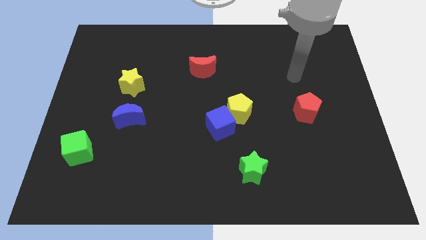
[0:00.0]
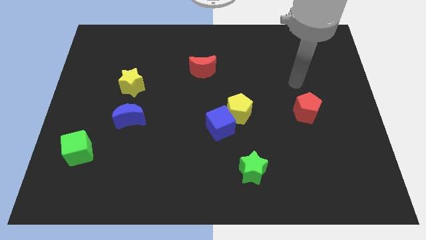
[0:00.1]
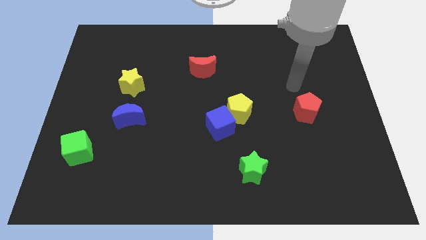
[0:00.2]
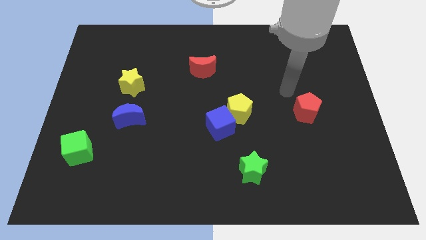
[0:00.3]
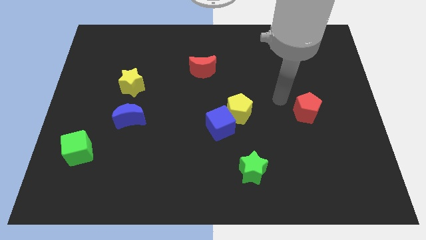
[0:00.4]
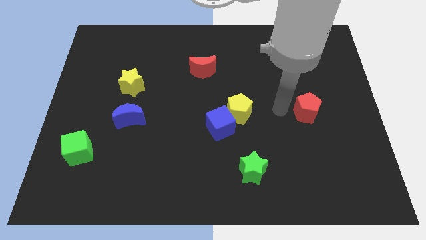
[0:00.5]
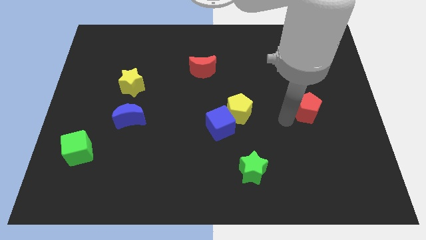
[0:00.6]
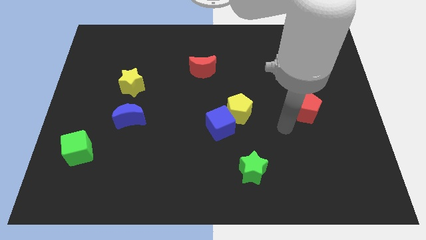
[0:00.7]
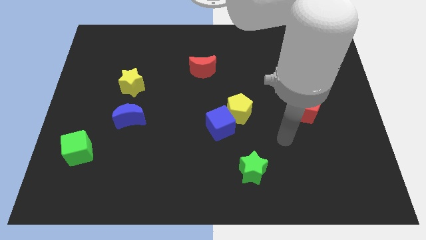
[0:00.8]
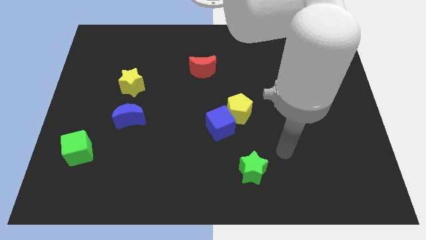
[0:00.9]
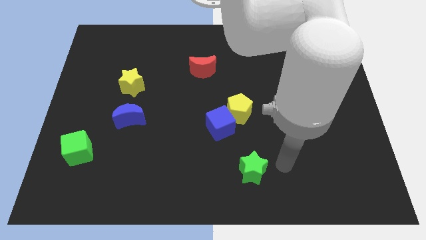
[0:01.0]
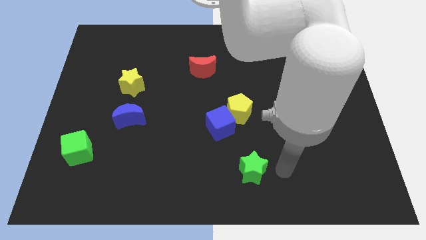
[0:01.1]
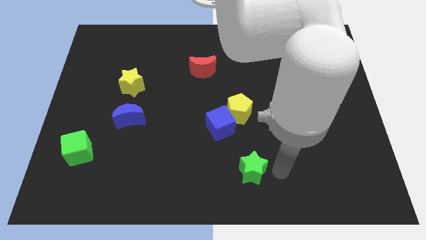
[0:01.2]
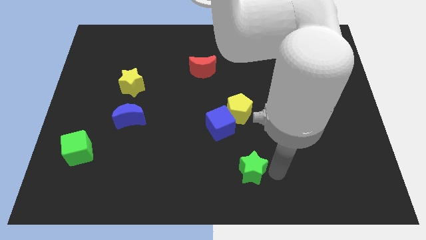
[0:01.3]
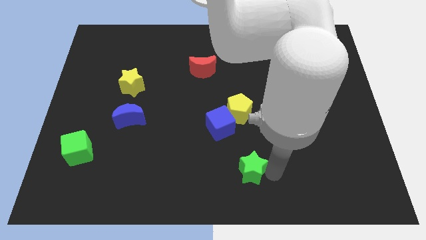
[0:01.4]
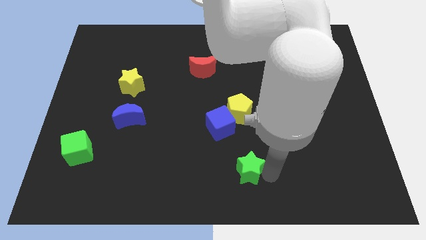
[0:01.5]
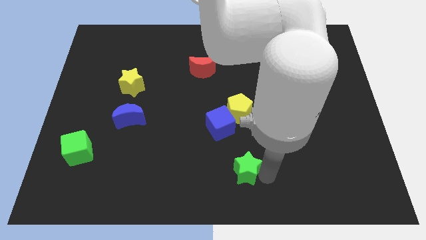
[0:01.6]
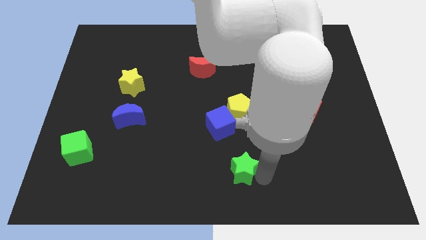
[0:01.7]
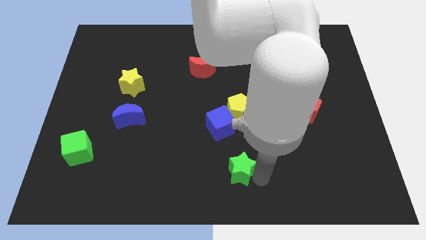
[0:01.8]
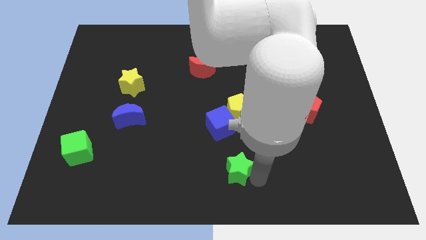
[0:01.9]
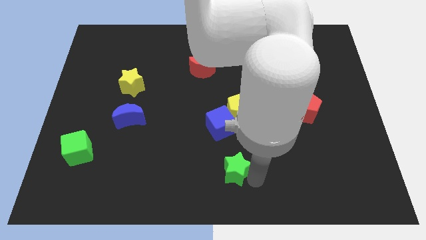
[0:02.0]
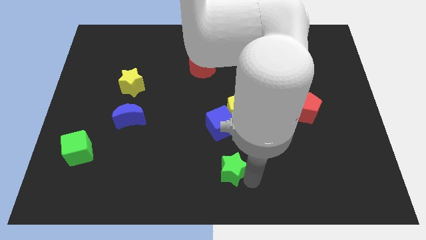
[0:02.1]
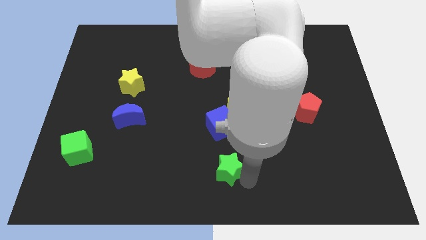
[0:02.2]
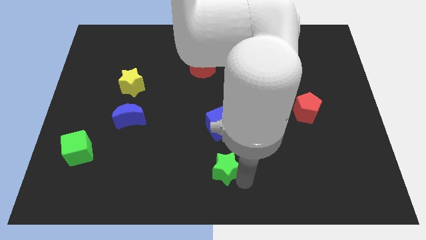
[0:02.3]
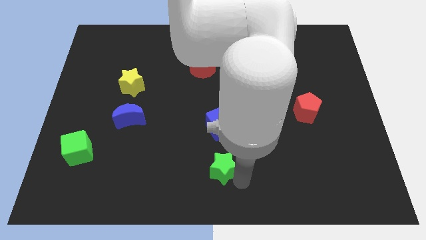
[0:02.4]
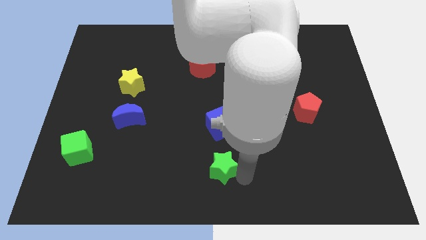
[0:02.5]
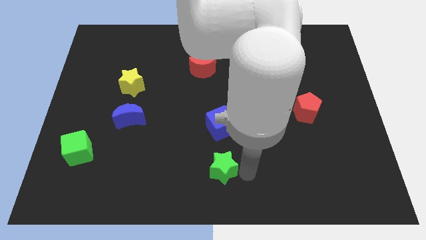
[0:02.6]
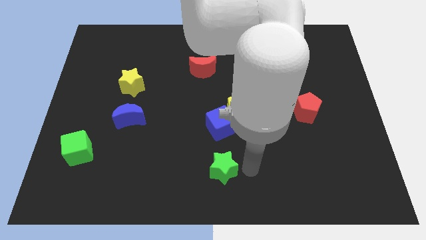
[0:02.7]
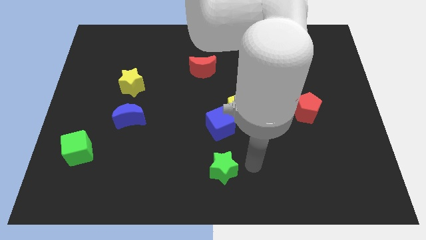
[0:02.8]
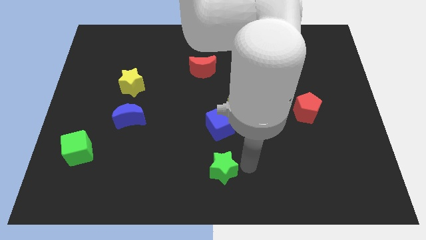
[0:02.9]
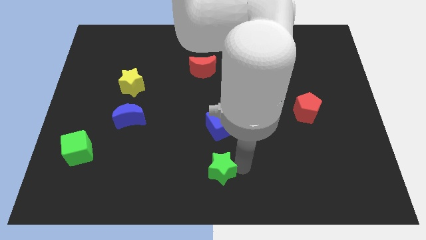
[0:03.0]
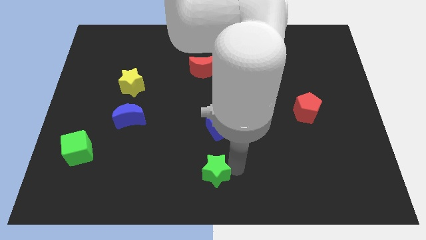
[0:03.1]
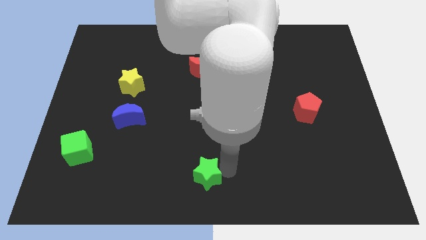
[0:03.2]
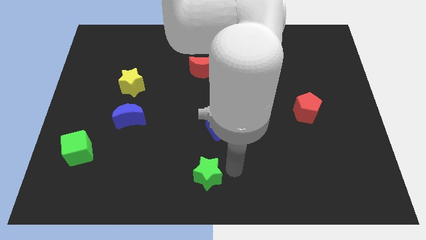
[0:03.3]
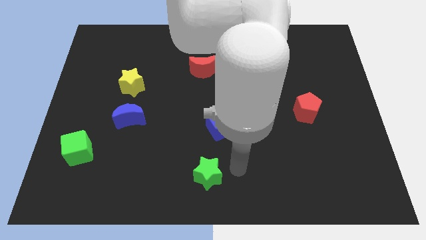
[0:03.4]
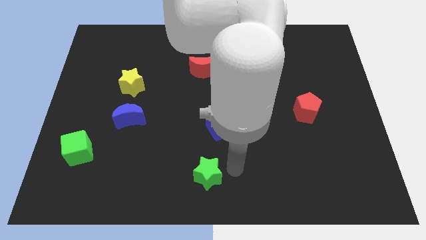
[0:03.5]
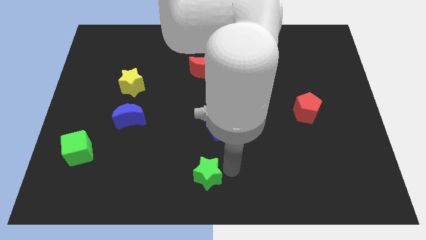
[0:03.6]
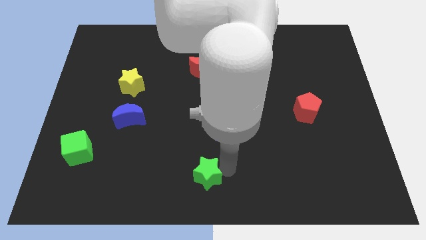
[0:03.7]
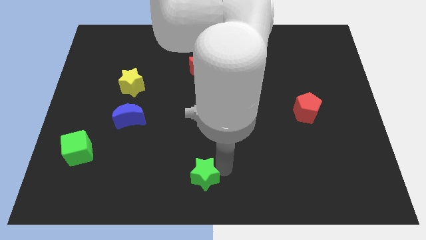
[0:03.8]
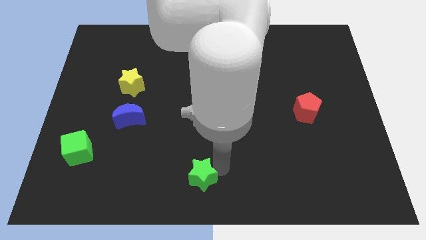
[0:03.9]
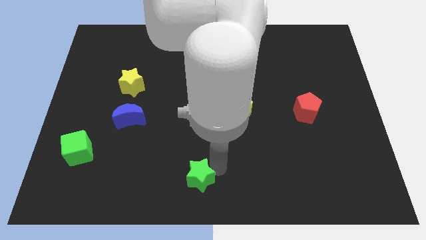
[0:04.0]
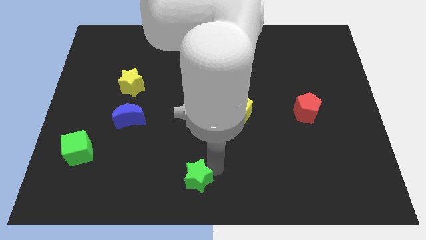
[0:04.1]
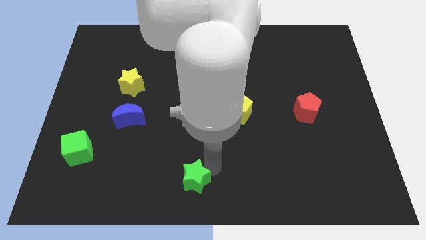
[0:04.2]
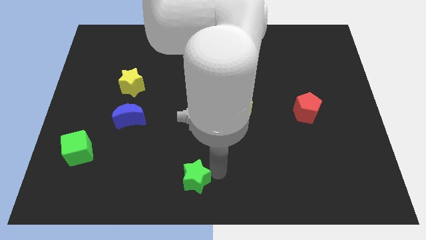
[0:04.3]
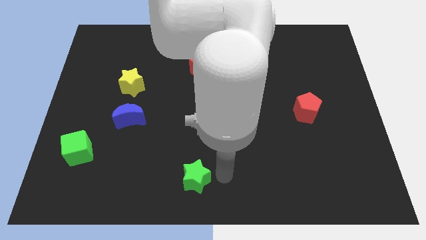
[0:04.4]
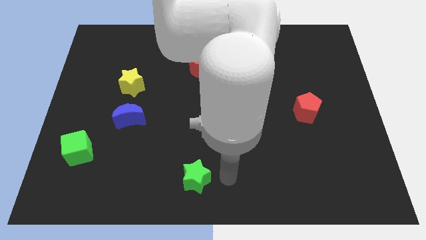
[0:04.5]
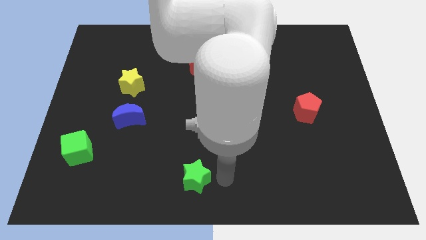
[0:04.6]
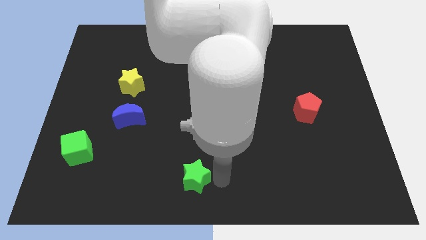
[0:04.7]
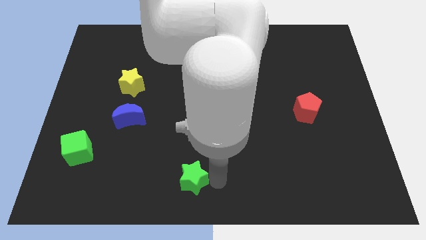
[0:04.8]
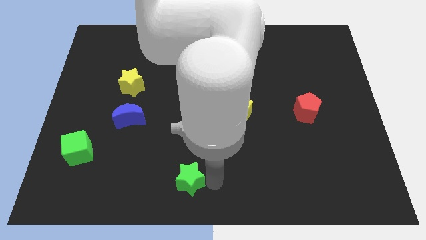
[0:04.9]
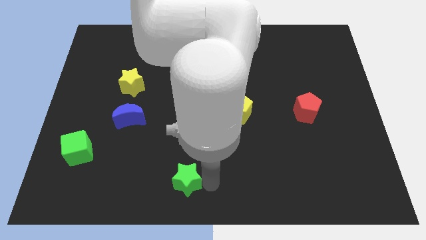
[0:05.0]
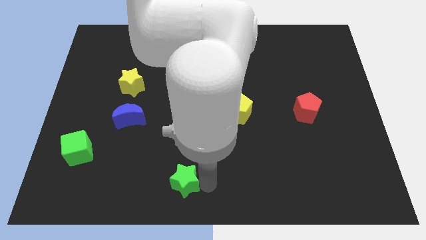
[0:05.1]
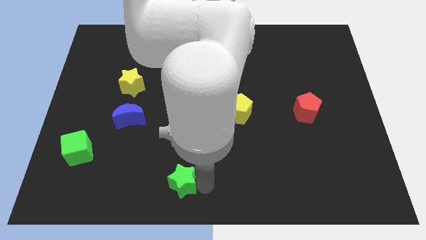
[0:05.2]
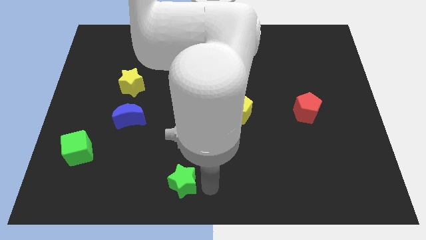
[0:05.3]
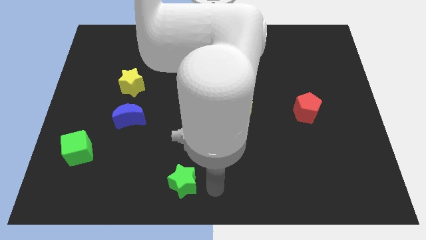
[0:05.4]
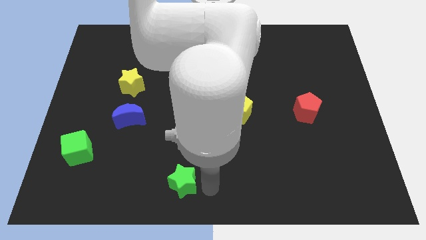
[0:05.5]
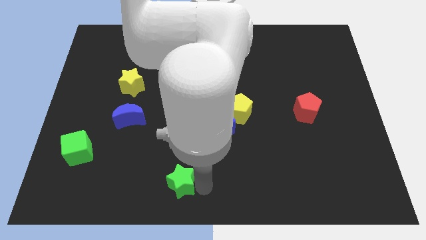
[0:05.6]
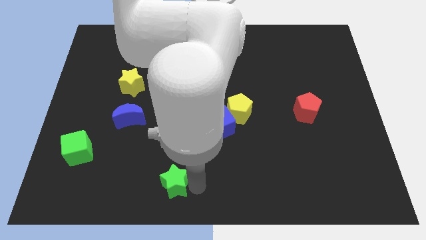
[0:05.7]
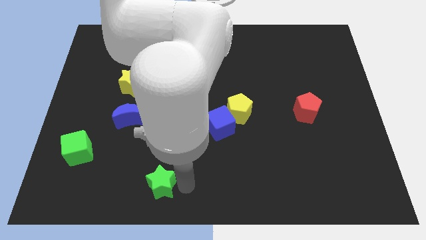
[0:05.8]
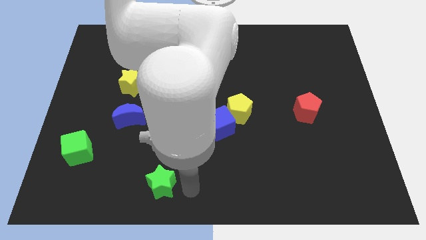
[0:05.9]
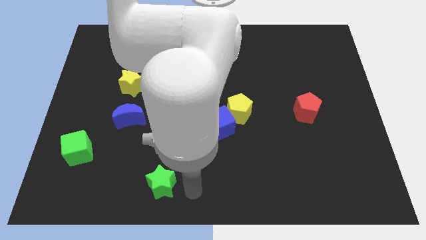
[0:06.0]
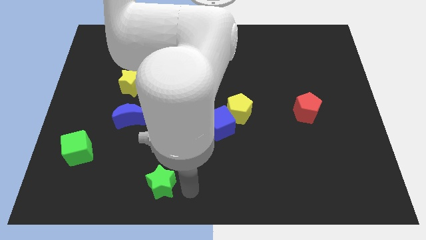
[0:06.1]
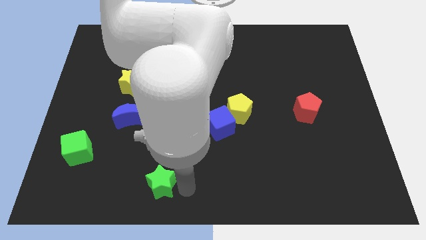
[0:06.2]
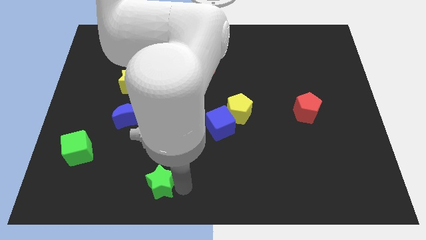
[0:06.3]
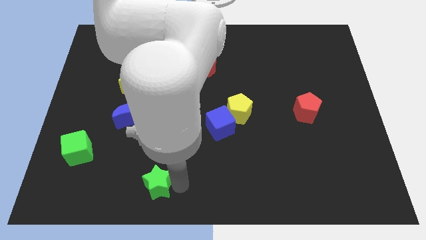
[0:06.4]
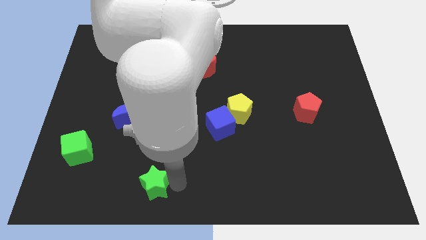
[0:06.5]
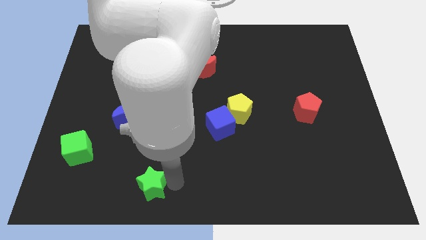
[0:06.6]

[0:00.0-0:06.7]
slide the green star to the left

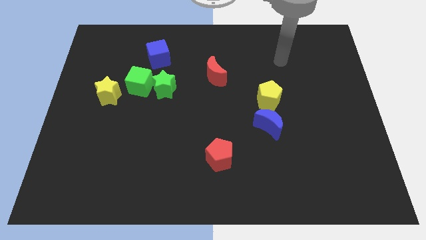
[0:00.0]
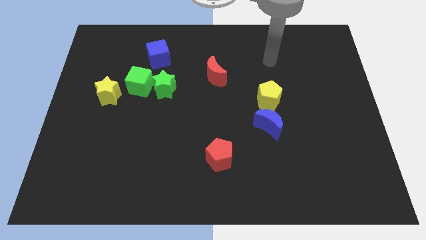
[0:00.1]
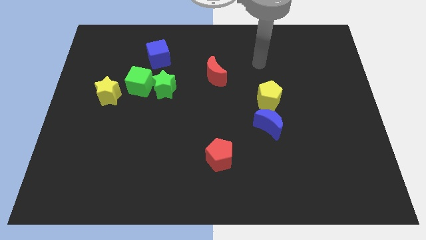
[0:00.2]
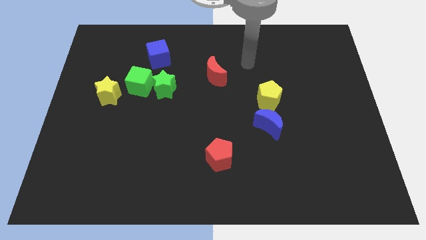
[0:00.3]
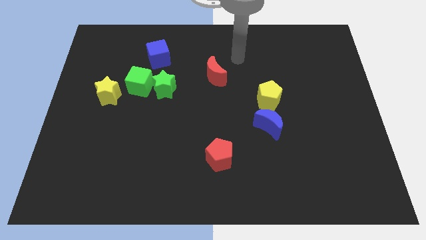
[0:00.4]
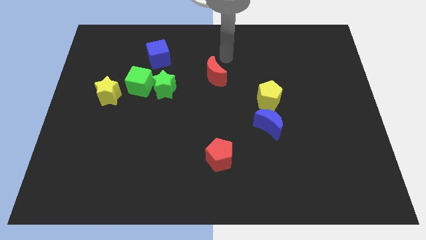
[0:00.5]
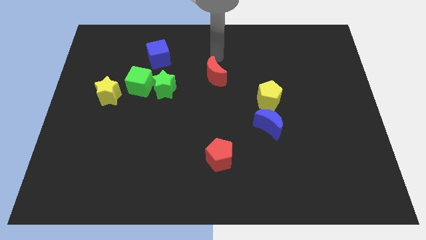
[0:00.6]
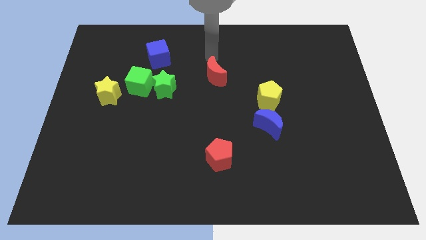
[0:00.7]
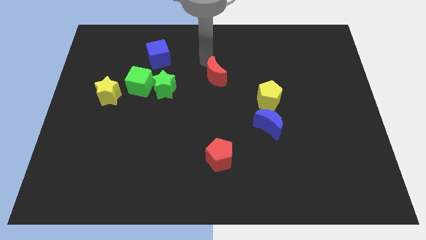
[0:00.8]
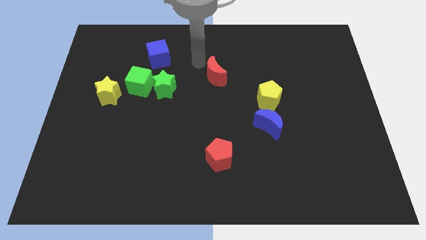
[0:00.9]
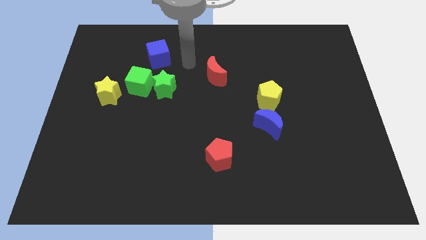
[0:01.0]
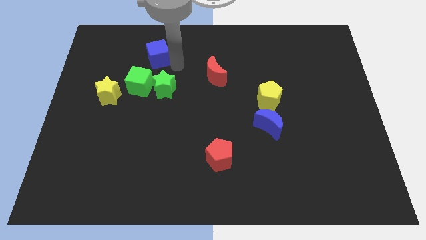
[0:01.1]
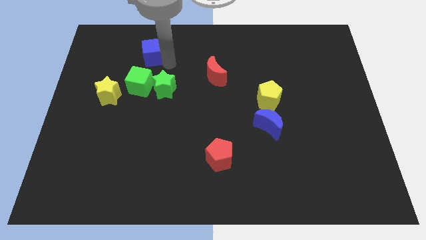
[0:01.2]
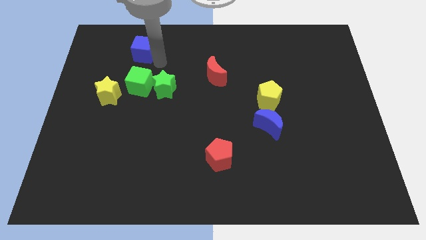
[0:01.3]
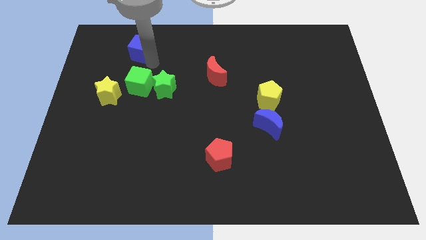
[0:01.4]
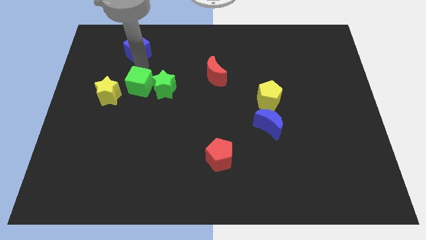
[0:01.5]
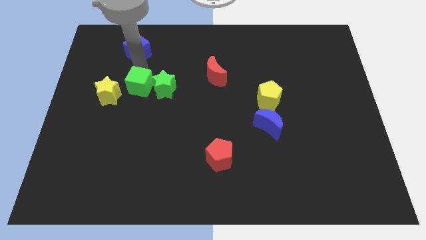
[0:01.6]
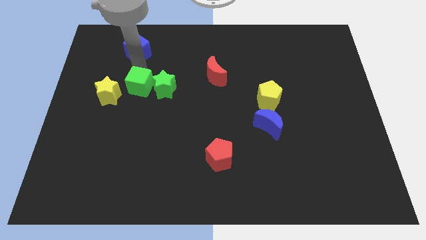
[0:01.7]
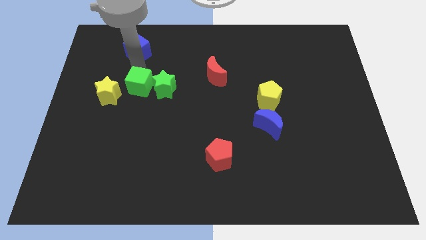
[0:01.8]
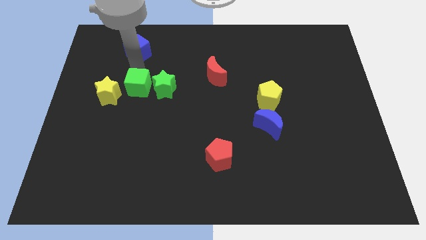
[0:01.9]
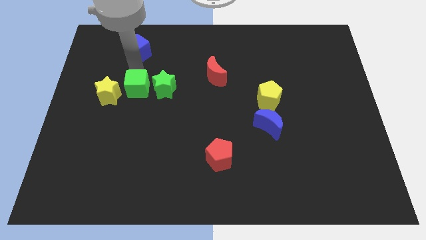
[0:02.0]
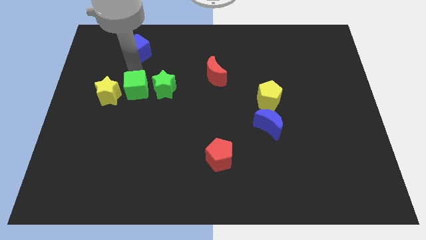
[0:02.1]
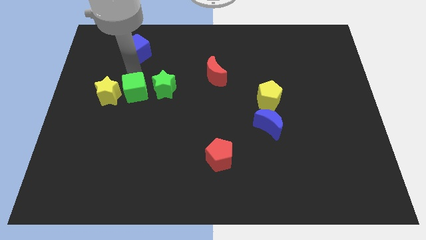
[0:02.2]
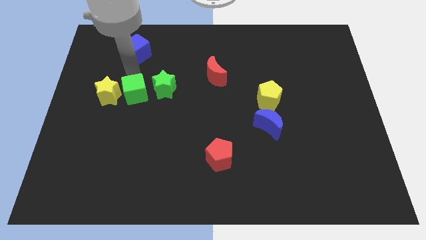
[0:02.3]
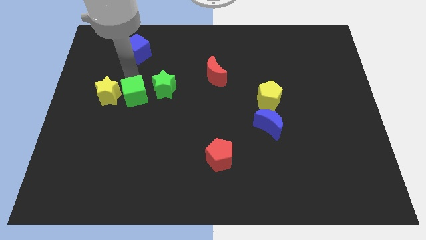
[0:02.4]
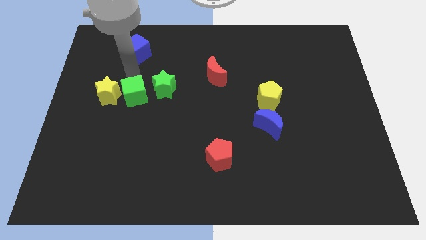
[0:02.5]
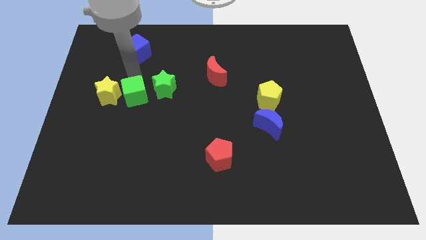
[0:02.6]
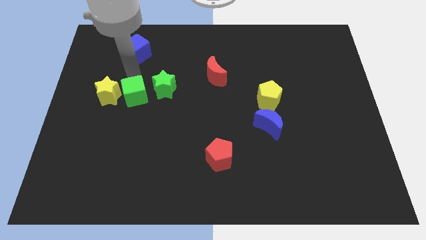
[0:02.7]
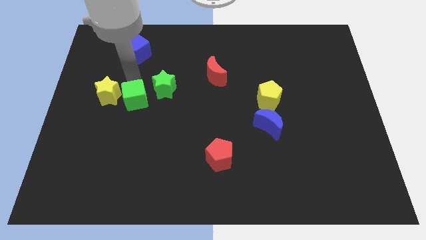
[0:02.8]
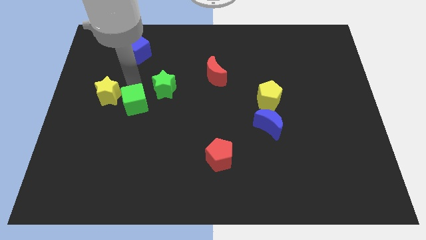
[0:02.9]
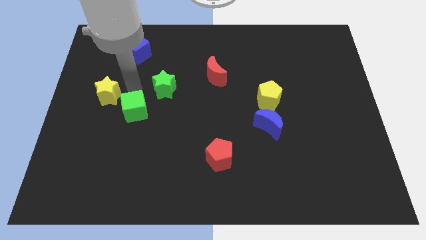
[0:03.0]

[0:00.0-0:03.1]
push the green cube downwards slightly
